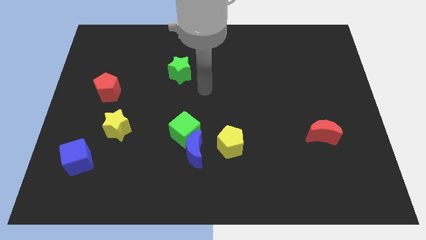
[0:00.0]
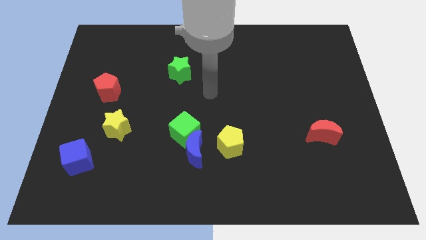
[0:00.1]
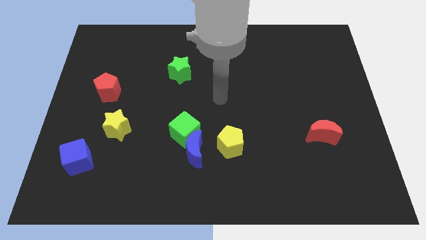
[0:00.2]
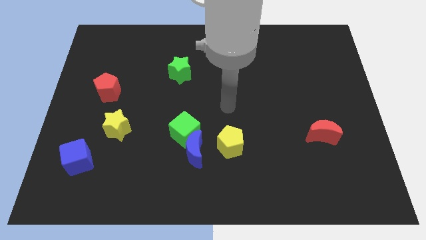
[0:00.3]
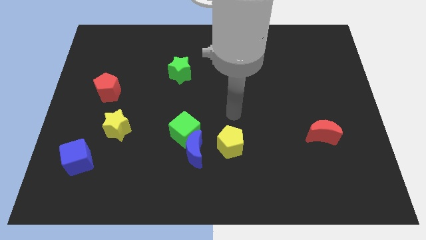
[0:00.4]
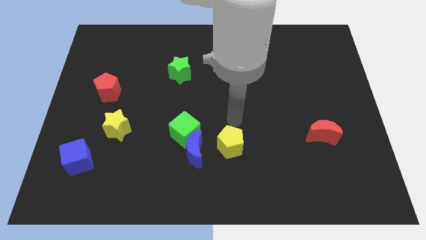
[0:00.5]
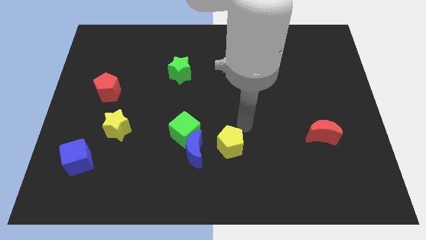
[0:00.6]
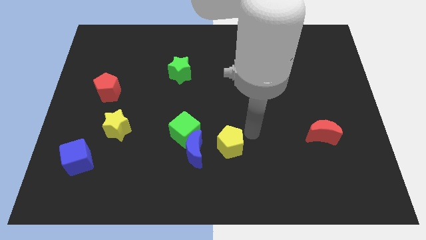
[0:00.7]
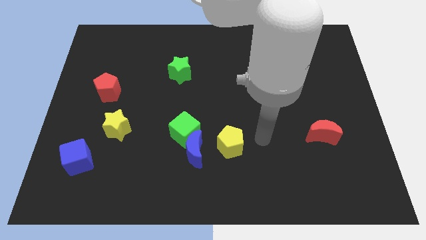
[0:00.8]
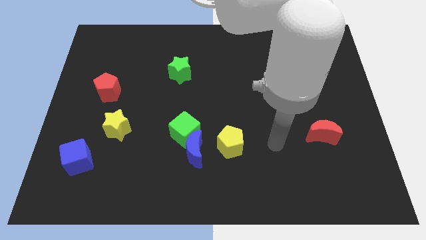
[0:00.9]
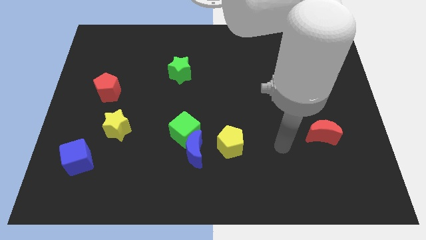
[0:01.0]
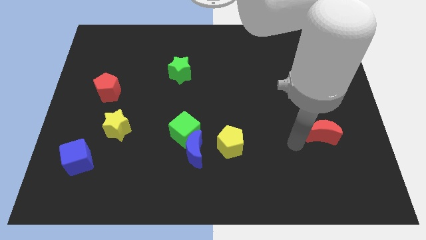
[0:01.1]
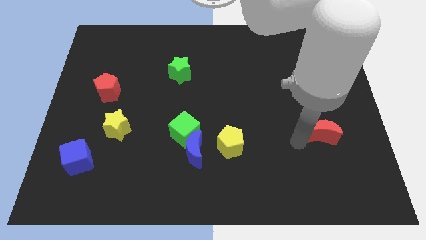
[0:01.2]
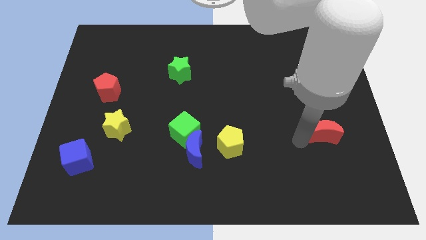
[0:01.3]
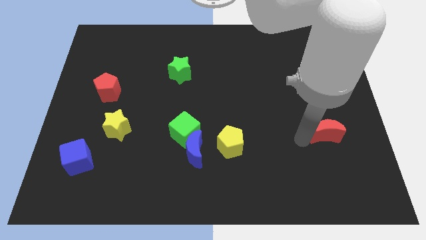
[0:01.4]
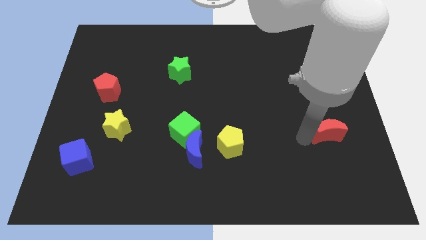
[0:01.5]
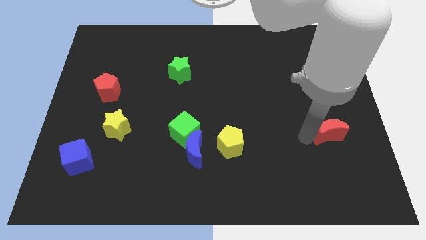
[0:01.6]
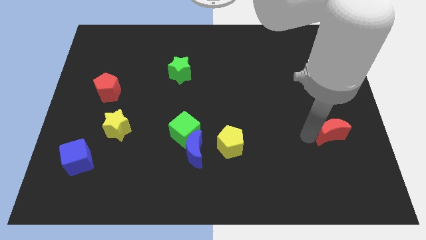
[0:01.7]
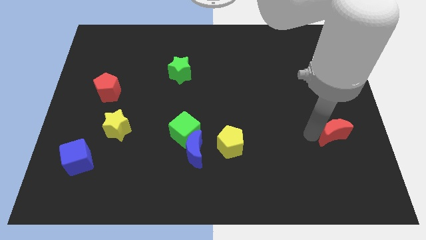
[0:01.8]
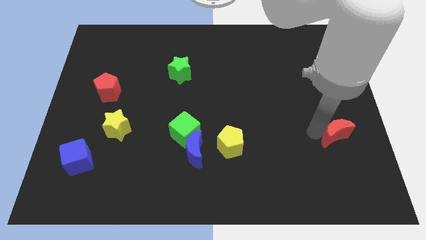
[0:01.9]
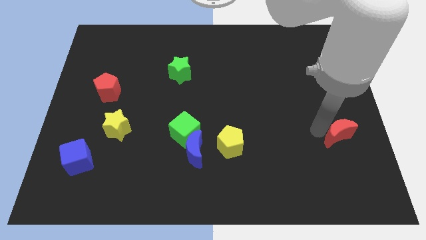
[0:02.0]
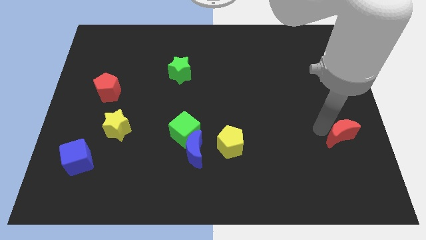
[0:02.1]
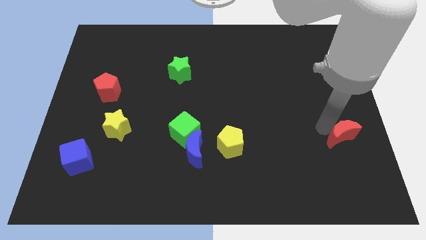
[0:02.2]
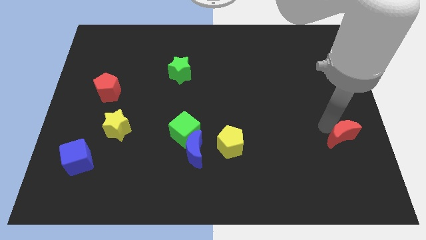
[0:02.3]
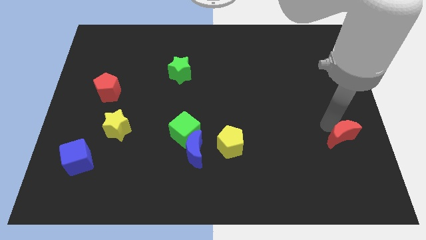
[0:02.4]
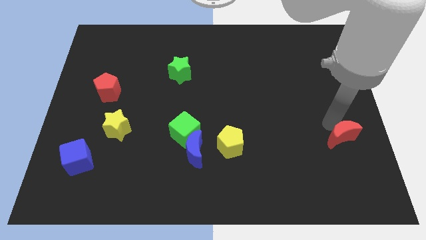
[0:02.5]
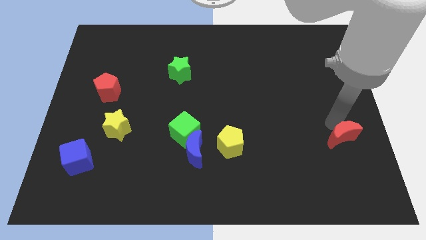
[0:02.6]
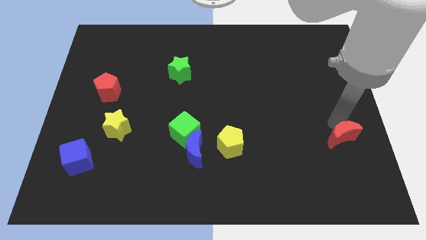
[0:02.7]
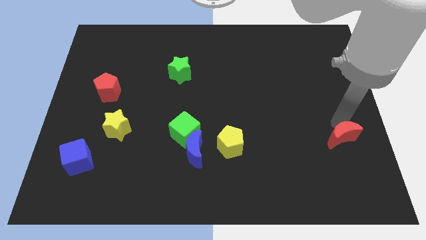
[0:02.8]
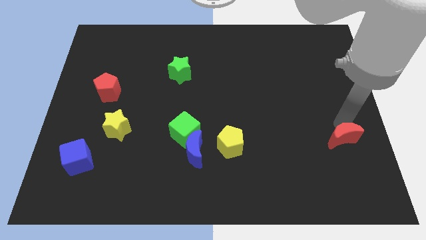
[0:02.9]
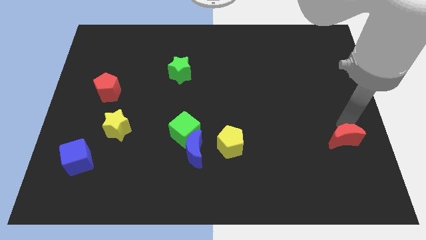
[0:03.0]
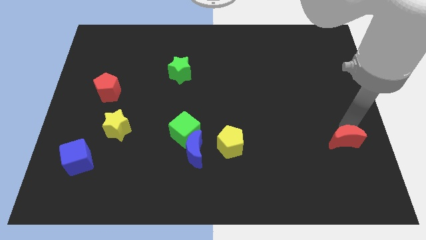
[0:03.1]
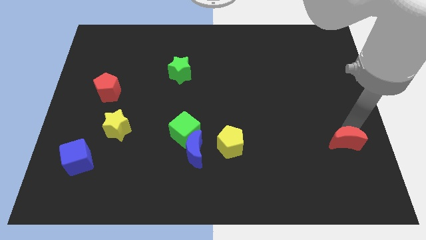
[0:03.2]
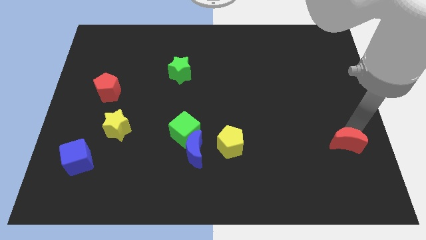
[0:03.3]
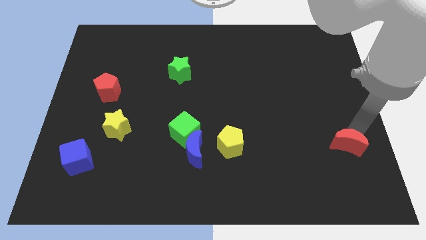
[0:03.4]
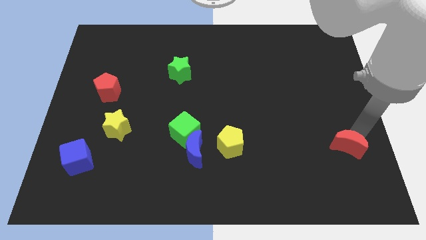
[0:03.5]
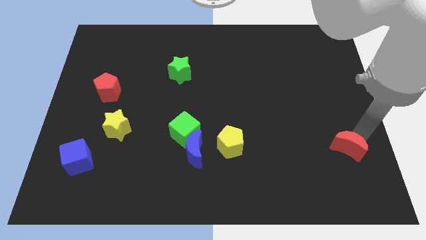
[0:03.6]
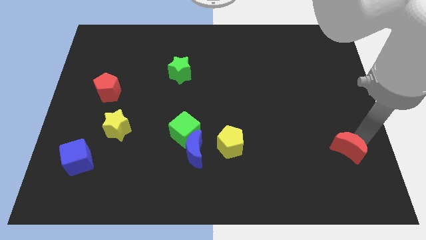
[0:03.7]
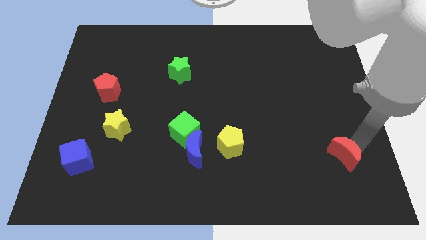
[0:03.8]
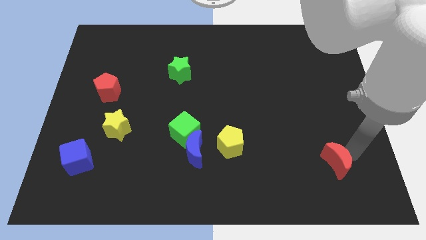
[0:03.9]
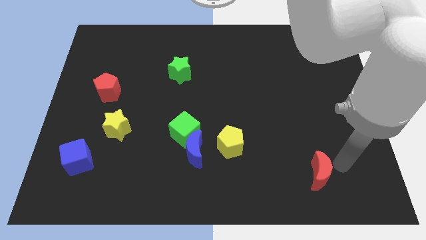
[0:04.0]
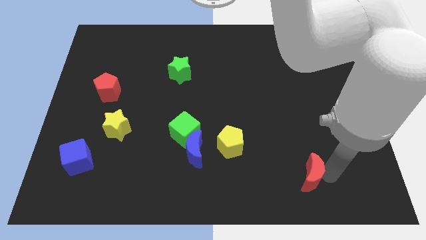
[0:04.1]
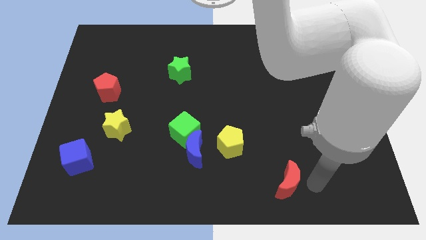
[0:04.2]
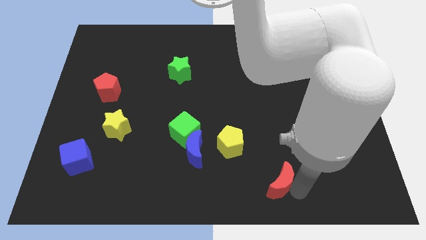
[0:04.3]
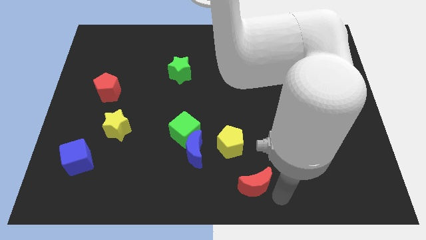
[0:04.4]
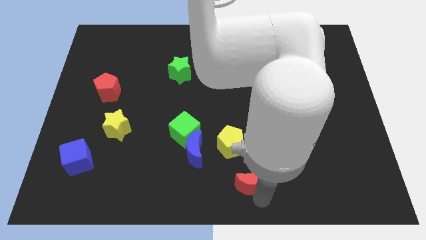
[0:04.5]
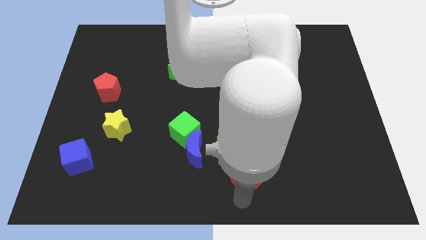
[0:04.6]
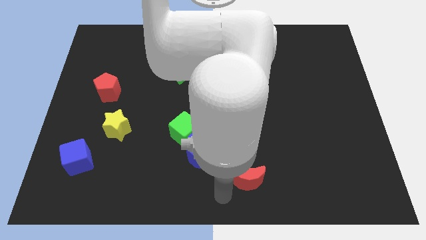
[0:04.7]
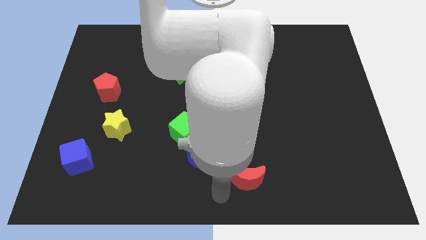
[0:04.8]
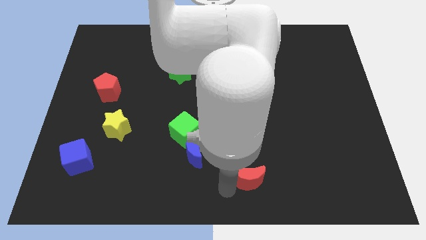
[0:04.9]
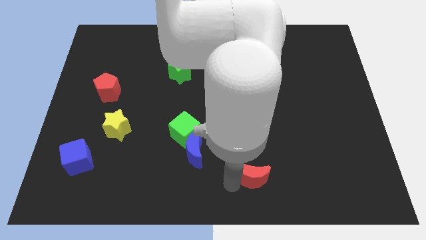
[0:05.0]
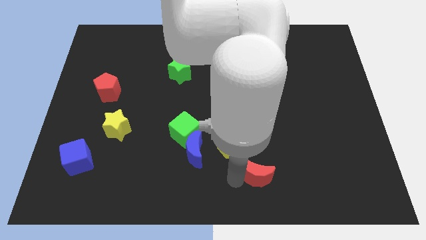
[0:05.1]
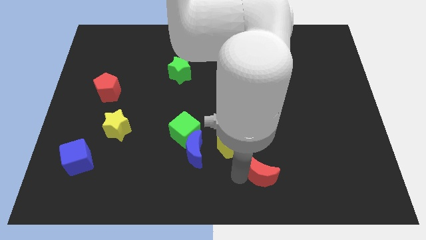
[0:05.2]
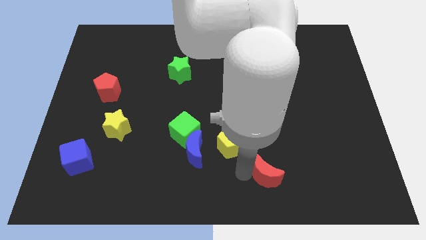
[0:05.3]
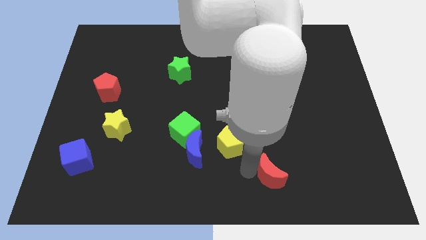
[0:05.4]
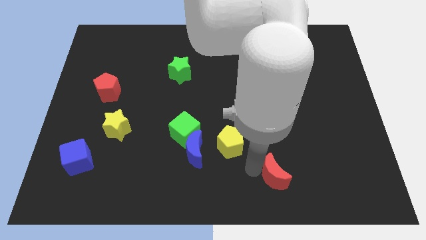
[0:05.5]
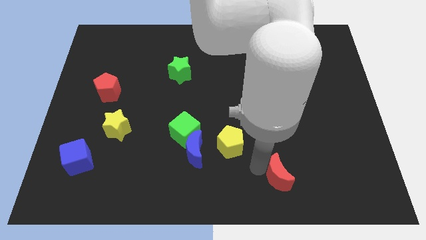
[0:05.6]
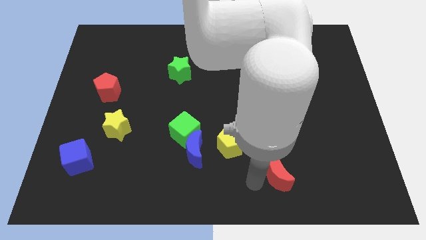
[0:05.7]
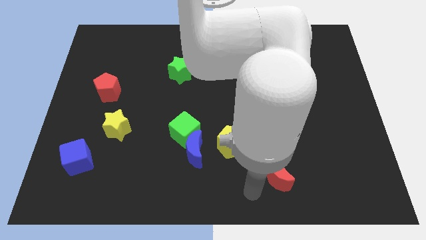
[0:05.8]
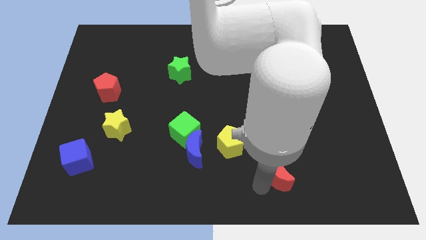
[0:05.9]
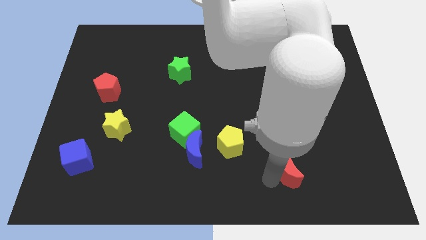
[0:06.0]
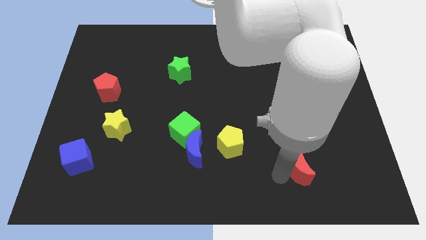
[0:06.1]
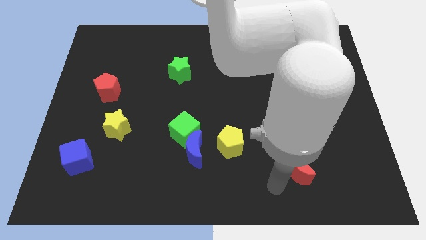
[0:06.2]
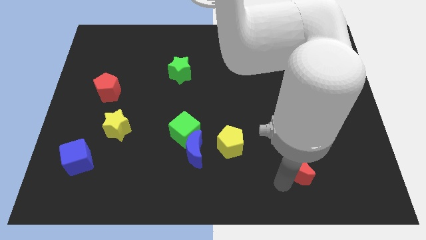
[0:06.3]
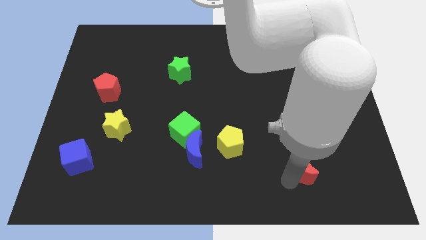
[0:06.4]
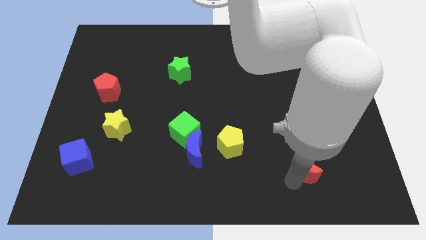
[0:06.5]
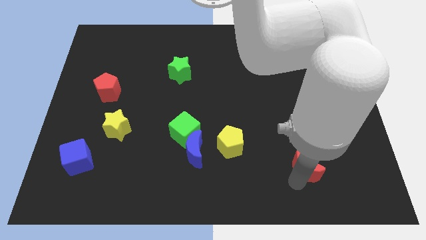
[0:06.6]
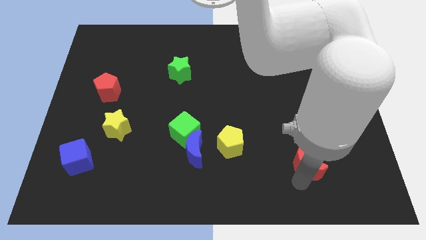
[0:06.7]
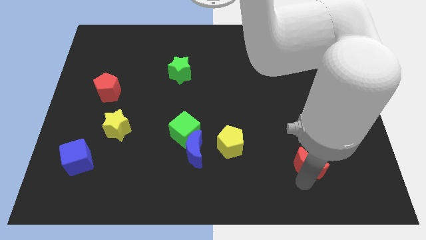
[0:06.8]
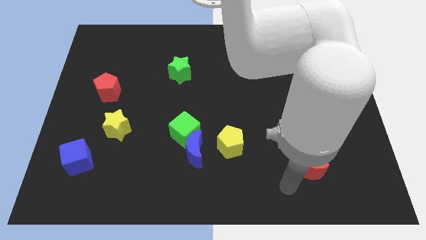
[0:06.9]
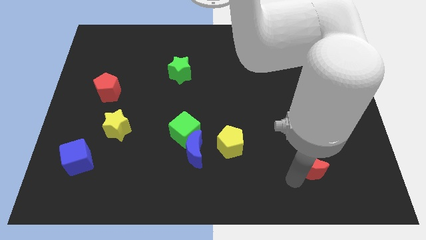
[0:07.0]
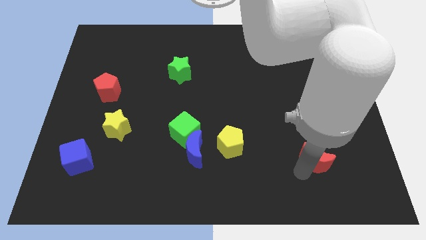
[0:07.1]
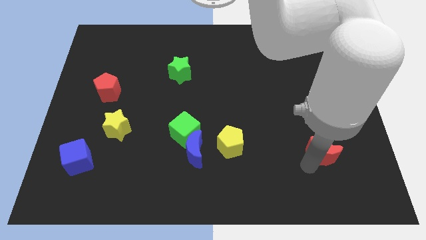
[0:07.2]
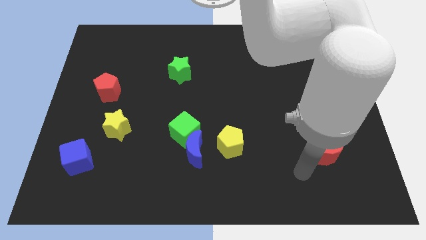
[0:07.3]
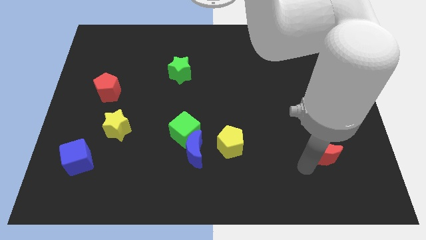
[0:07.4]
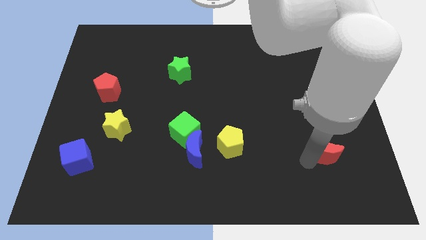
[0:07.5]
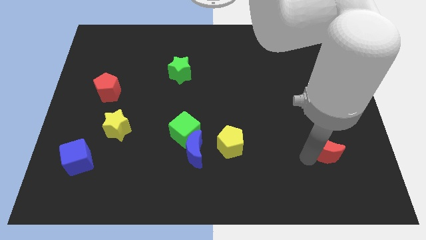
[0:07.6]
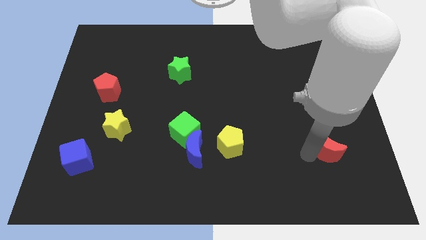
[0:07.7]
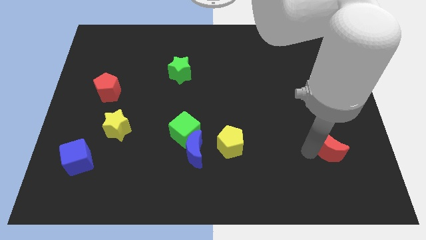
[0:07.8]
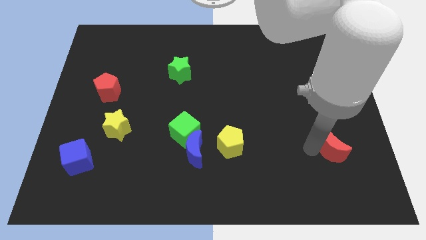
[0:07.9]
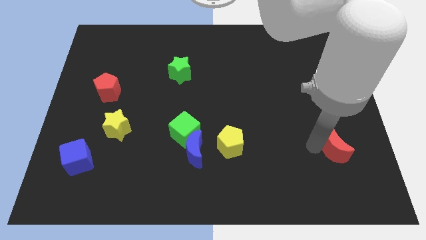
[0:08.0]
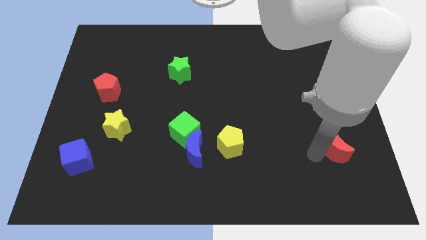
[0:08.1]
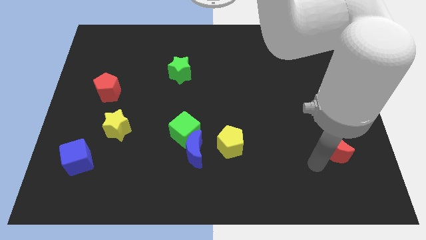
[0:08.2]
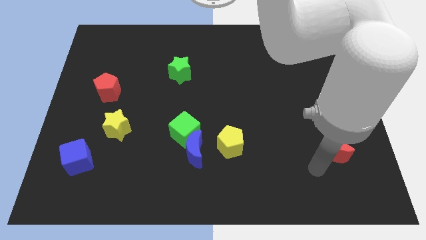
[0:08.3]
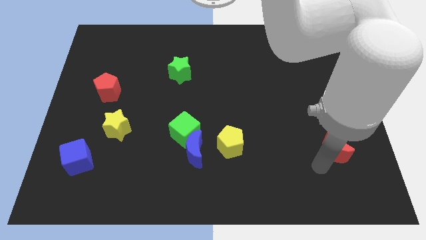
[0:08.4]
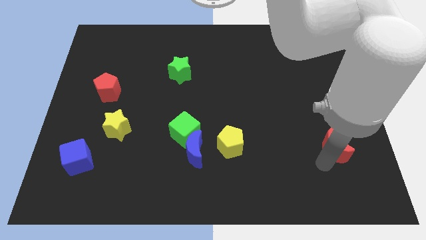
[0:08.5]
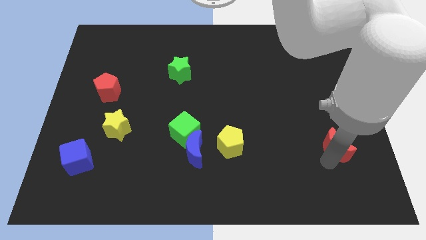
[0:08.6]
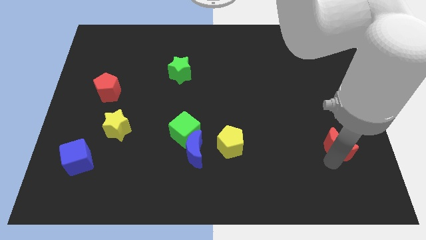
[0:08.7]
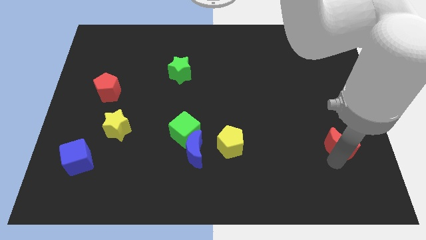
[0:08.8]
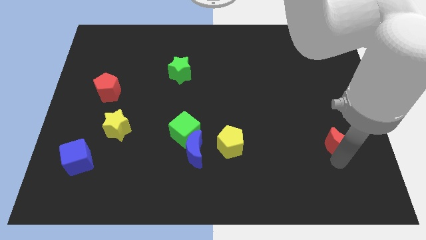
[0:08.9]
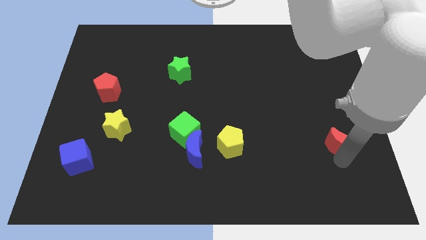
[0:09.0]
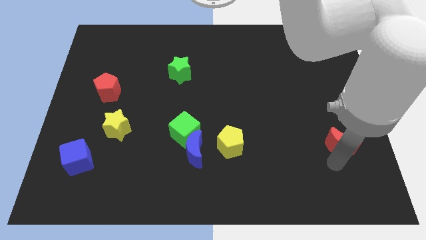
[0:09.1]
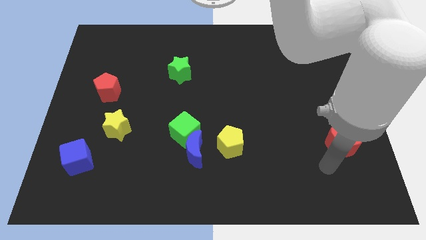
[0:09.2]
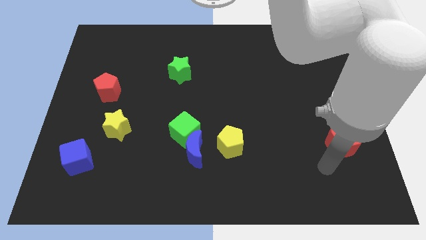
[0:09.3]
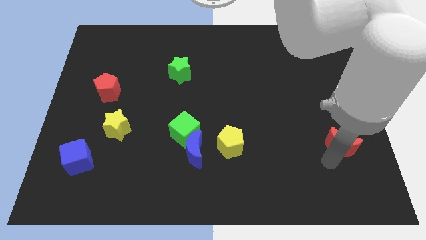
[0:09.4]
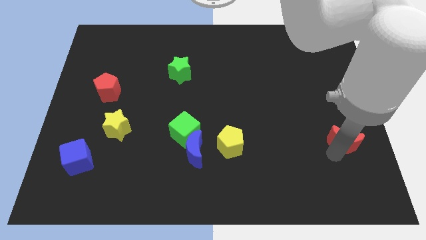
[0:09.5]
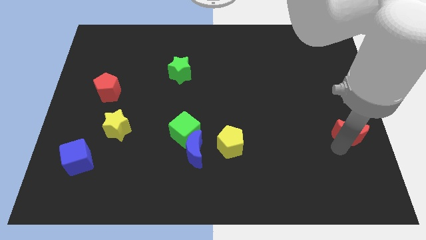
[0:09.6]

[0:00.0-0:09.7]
push the red moon to the center right
